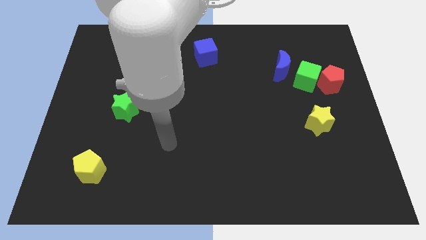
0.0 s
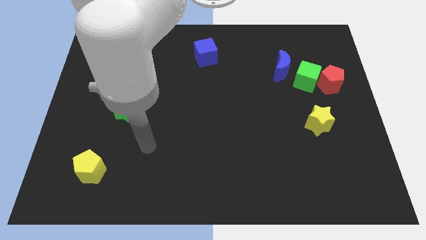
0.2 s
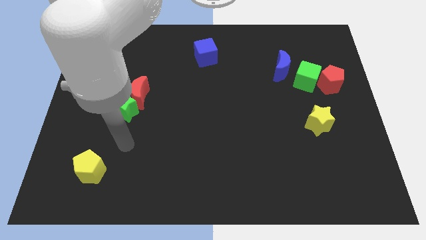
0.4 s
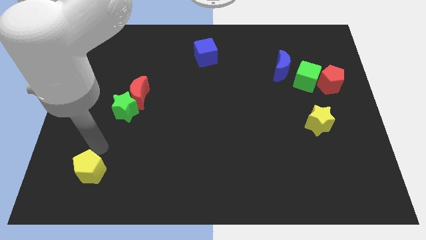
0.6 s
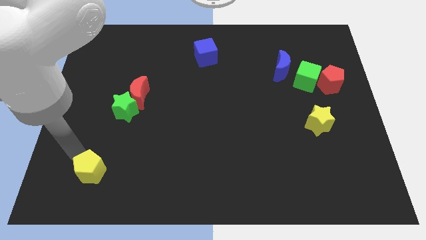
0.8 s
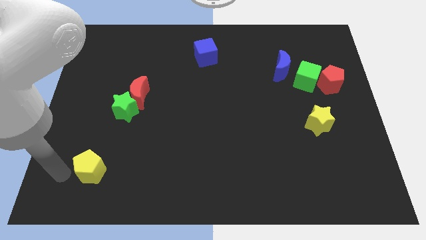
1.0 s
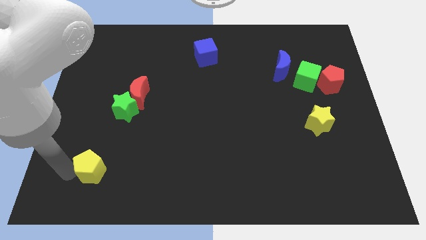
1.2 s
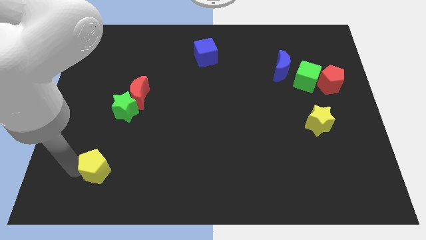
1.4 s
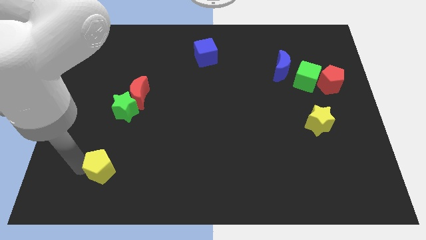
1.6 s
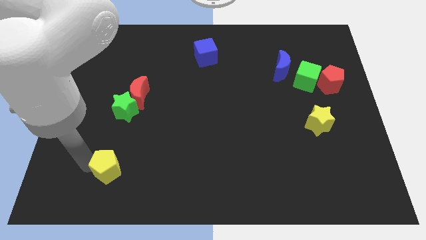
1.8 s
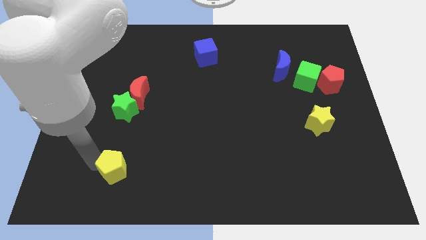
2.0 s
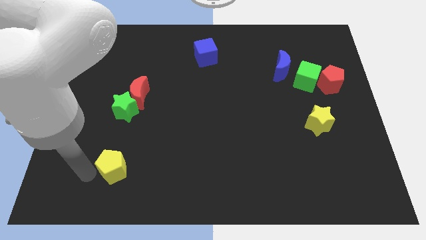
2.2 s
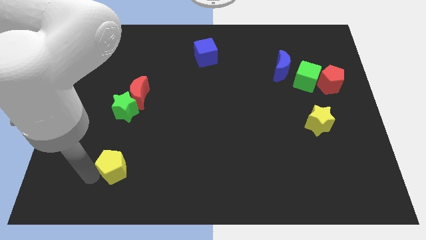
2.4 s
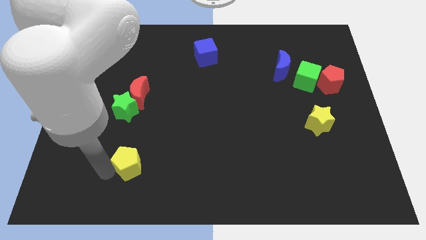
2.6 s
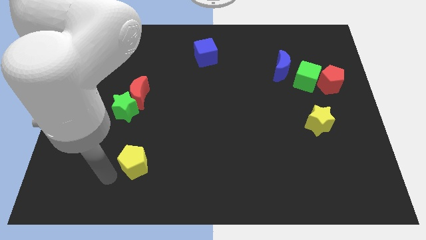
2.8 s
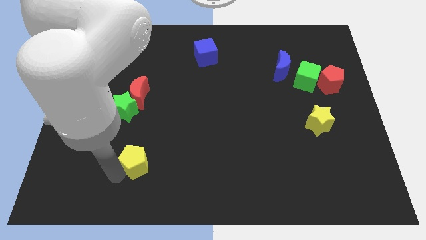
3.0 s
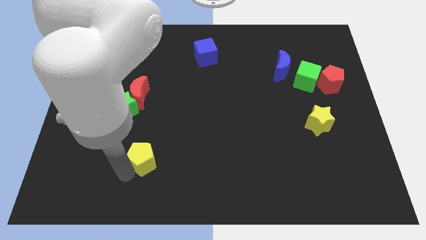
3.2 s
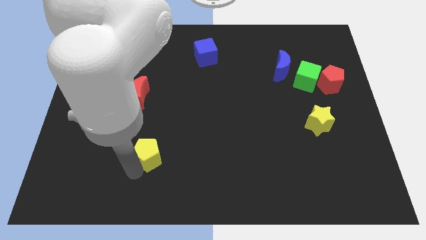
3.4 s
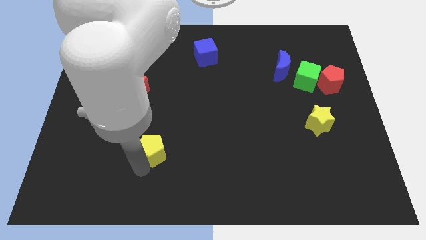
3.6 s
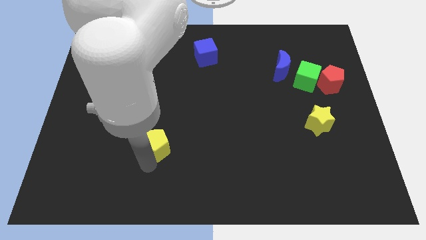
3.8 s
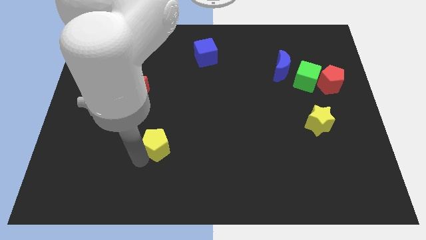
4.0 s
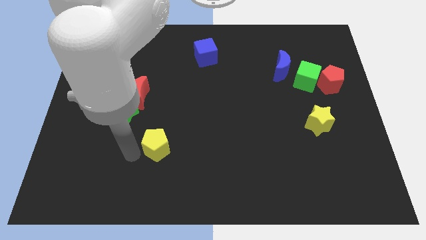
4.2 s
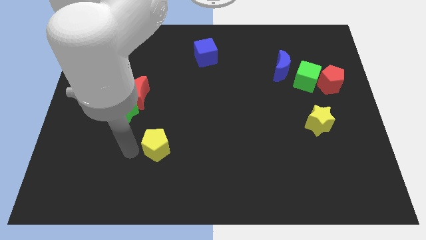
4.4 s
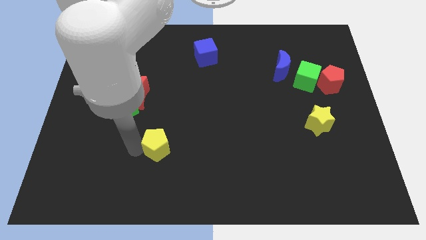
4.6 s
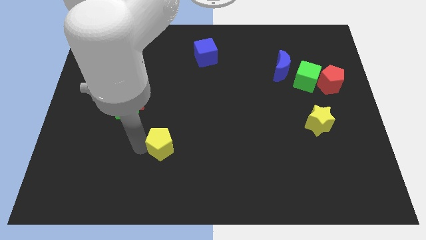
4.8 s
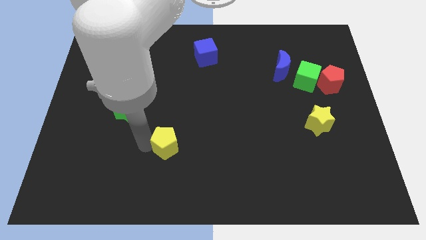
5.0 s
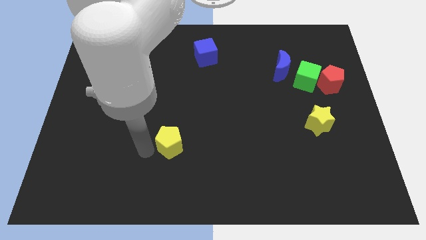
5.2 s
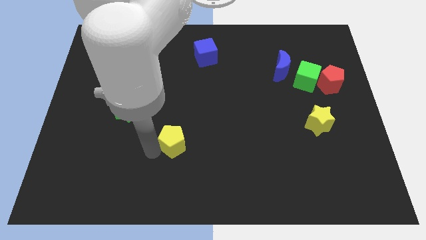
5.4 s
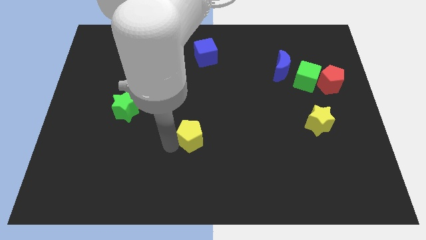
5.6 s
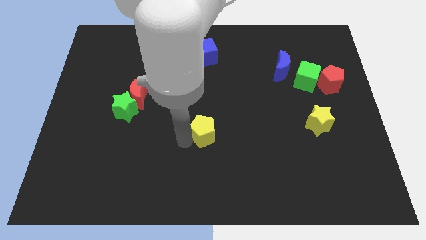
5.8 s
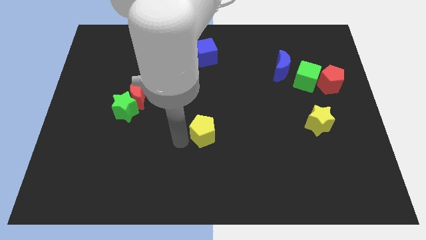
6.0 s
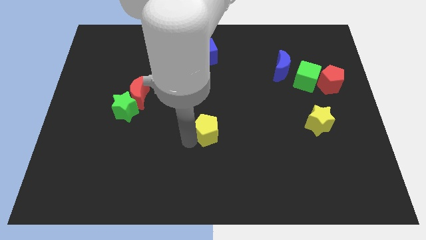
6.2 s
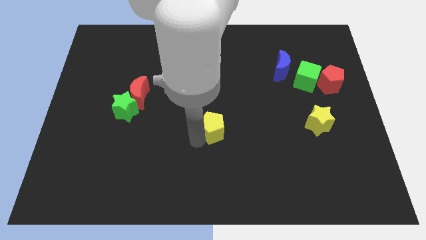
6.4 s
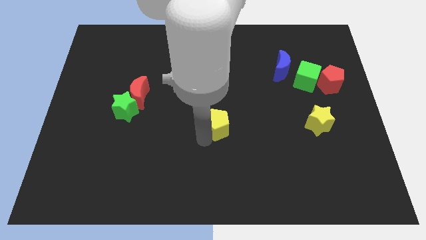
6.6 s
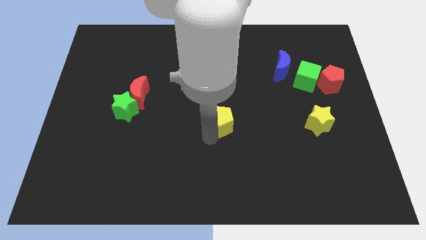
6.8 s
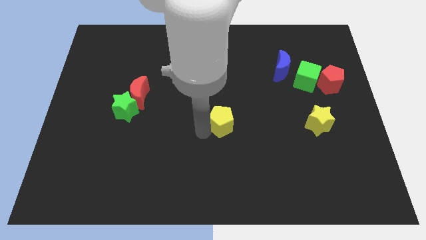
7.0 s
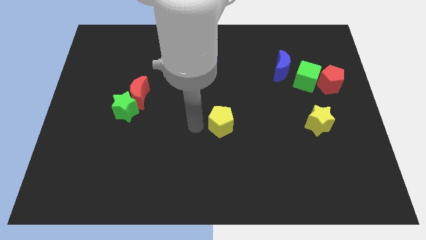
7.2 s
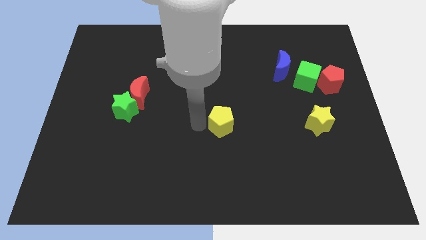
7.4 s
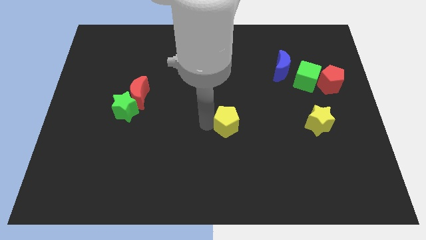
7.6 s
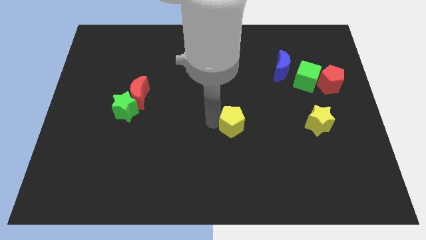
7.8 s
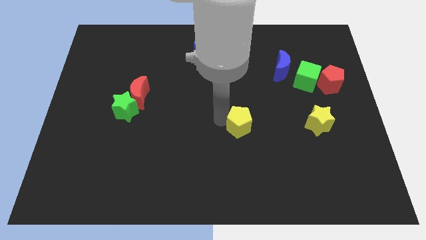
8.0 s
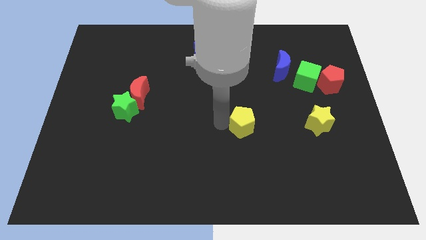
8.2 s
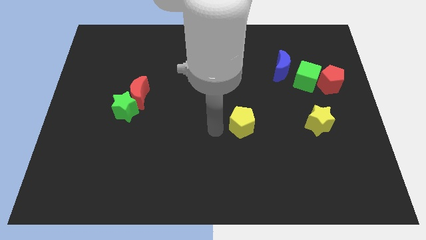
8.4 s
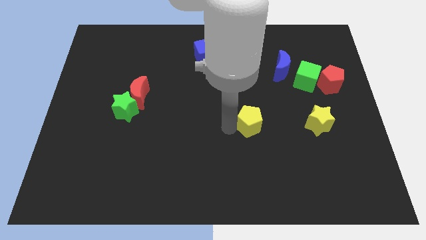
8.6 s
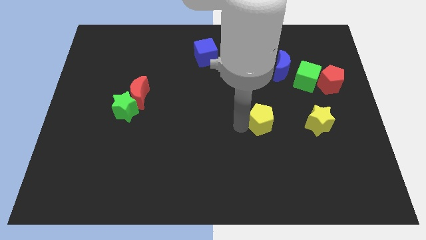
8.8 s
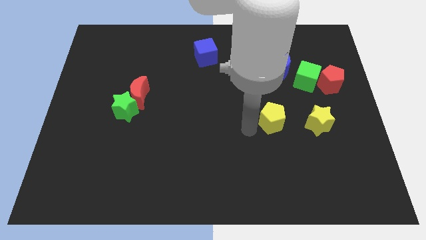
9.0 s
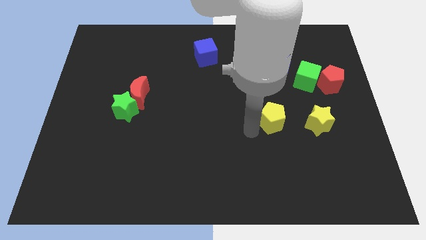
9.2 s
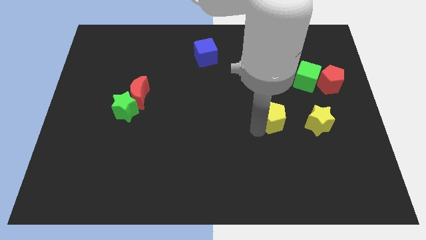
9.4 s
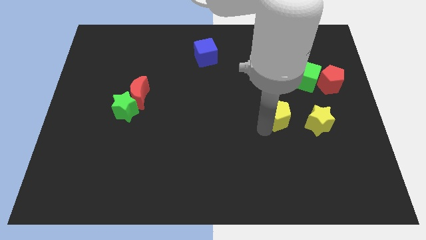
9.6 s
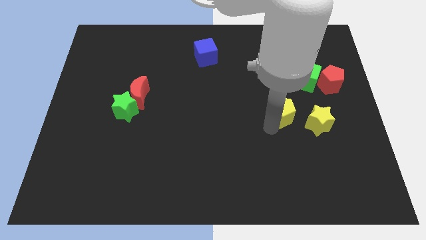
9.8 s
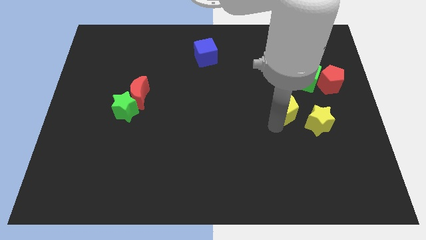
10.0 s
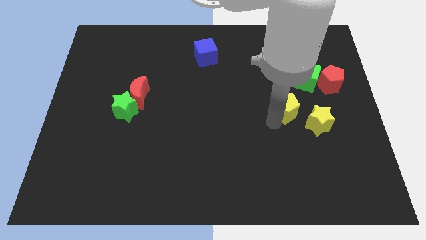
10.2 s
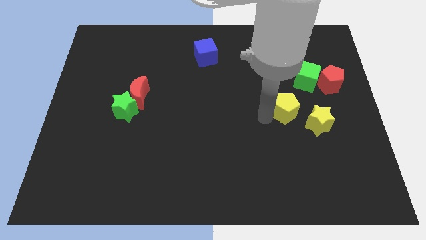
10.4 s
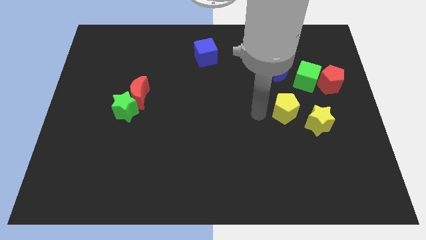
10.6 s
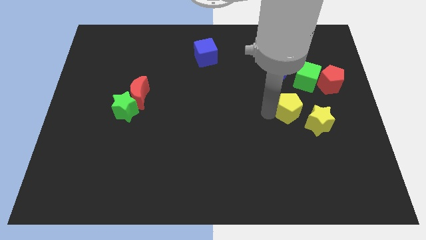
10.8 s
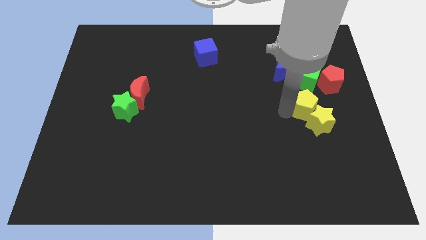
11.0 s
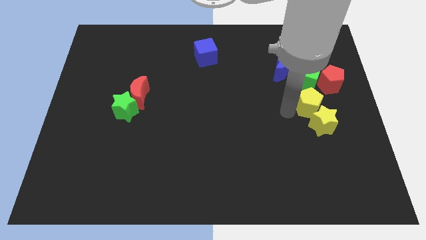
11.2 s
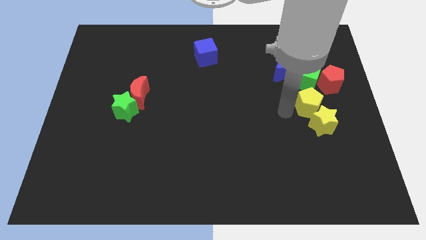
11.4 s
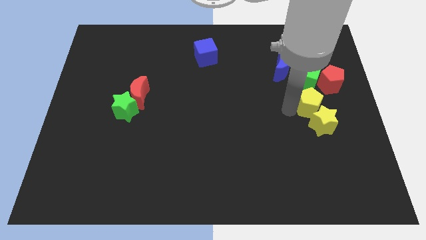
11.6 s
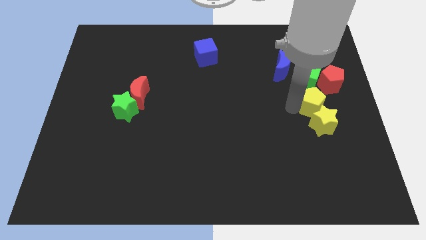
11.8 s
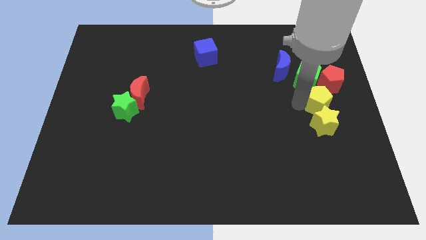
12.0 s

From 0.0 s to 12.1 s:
put the yellow pentagon to the right side

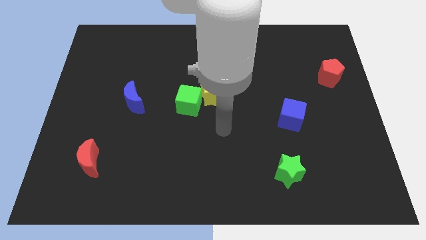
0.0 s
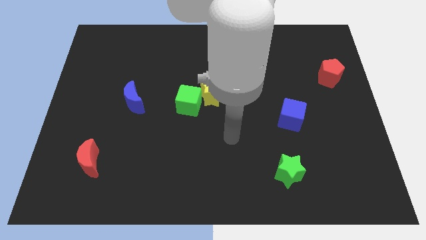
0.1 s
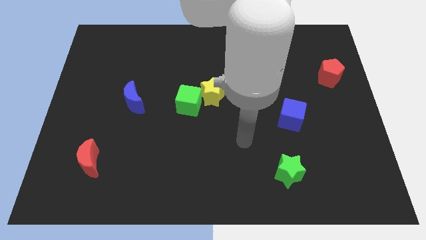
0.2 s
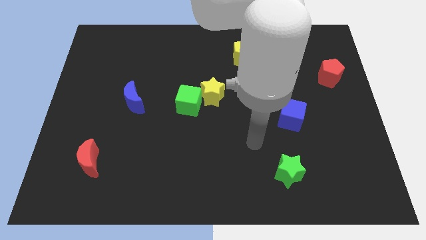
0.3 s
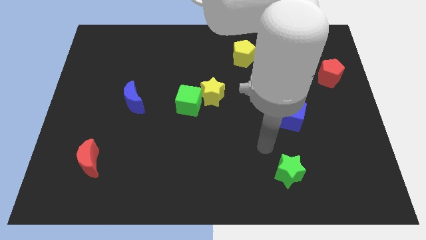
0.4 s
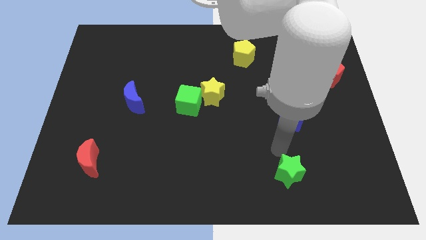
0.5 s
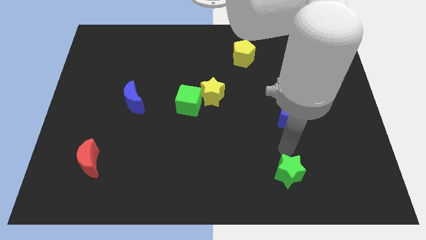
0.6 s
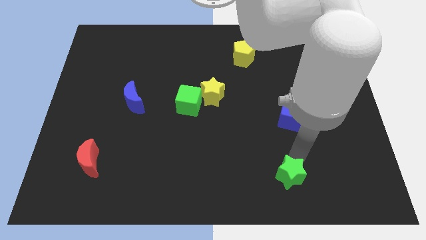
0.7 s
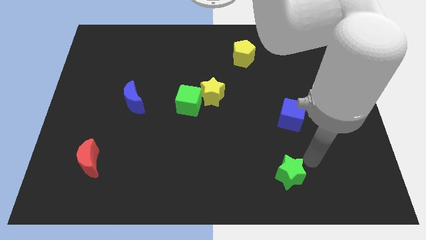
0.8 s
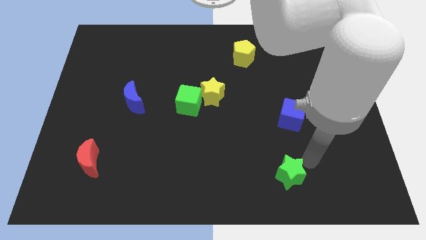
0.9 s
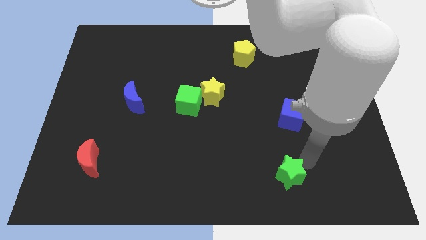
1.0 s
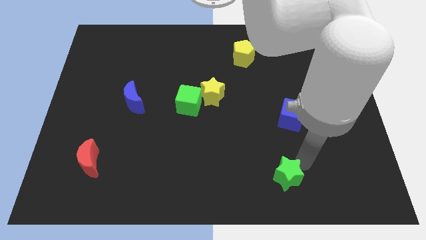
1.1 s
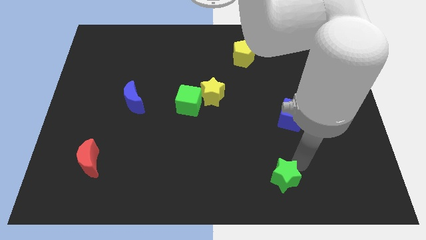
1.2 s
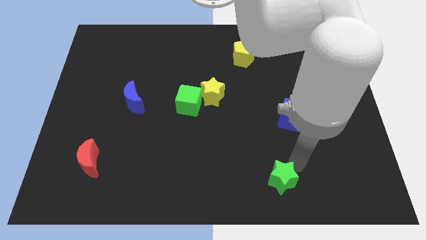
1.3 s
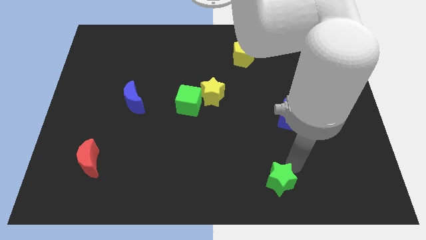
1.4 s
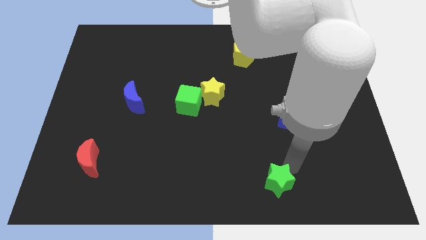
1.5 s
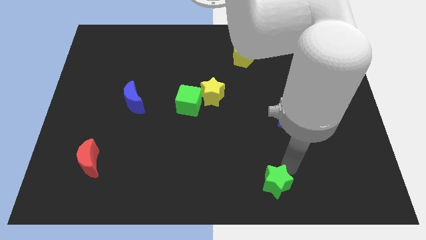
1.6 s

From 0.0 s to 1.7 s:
push the green star to the bottom
